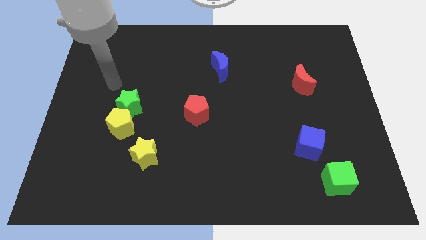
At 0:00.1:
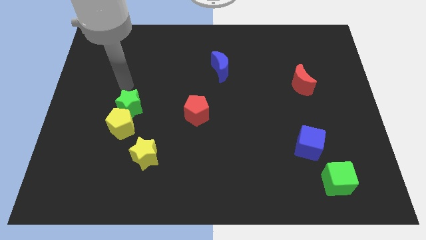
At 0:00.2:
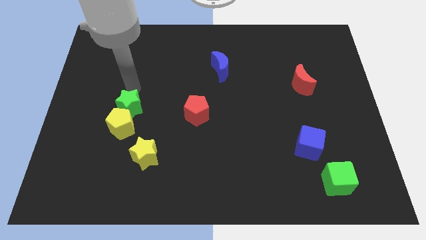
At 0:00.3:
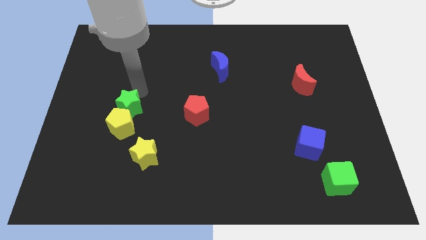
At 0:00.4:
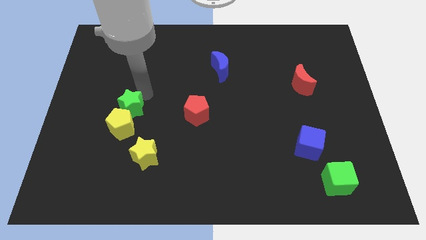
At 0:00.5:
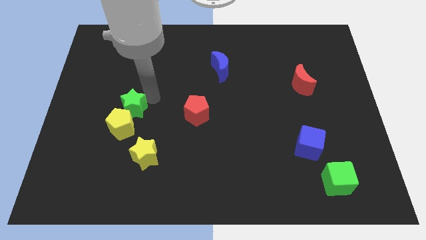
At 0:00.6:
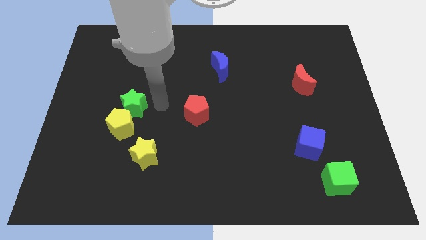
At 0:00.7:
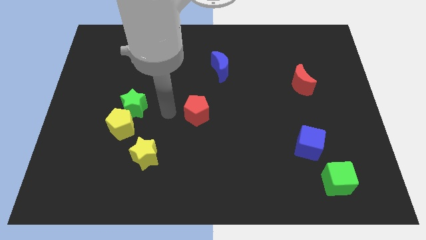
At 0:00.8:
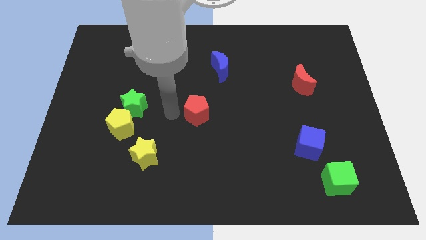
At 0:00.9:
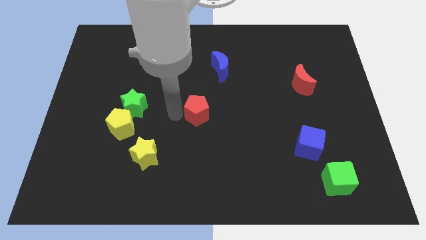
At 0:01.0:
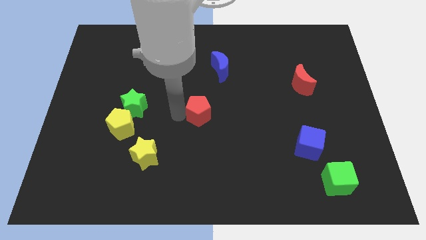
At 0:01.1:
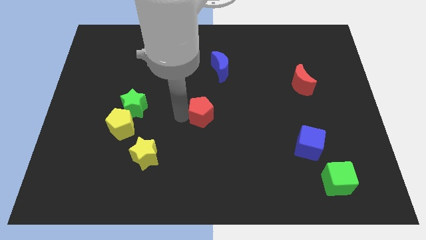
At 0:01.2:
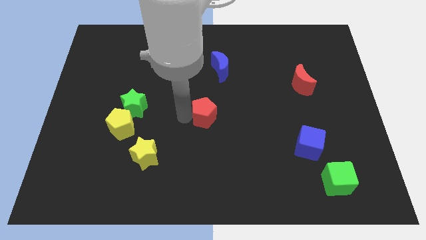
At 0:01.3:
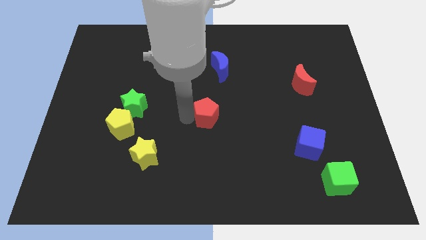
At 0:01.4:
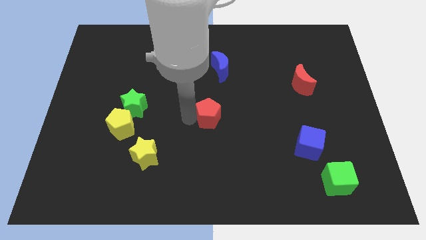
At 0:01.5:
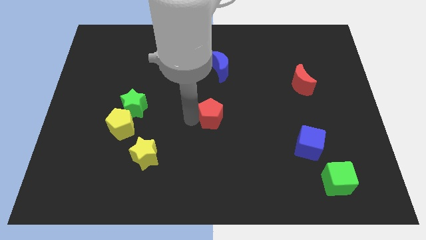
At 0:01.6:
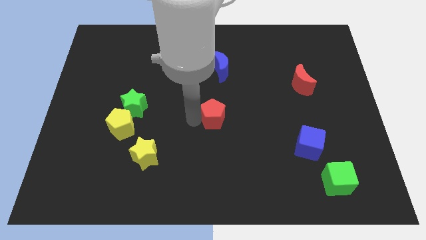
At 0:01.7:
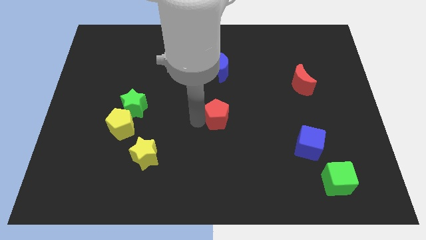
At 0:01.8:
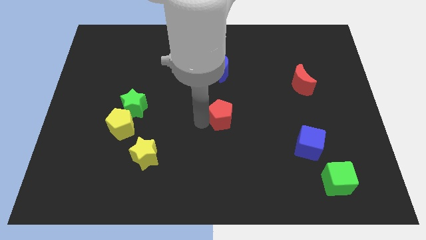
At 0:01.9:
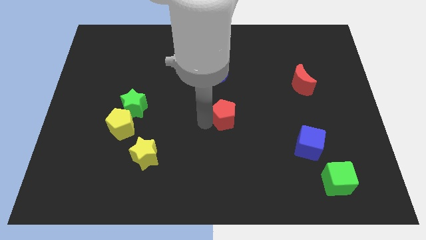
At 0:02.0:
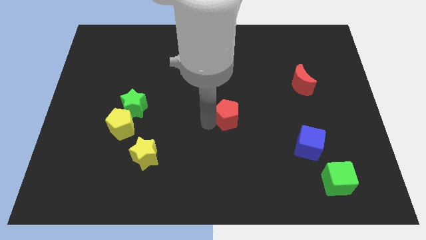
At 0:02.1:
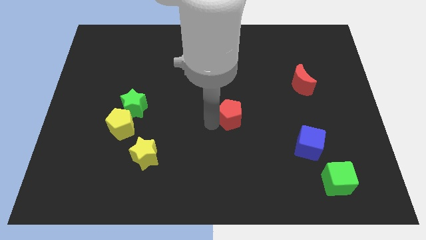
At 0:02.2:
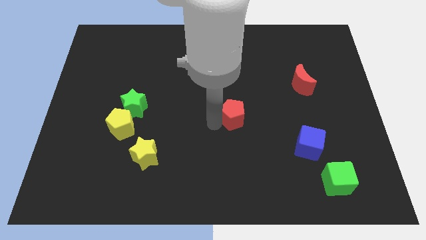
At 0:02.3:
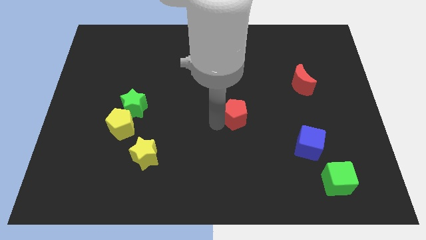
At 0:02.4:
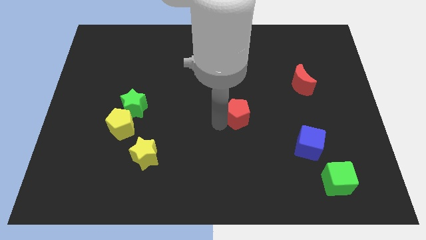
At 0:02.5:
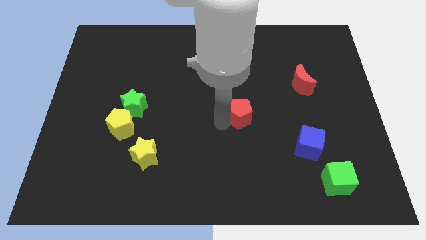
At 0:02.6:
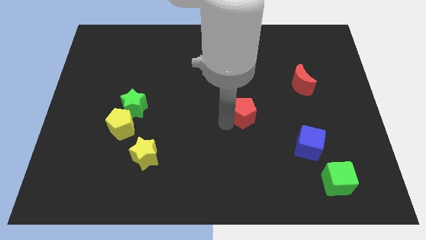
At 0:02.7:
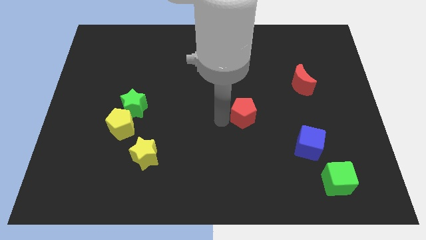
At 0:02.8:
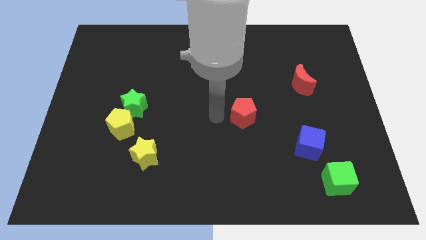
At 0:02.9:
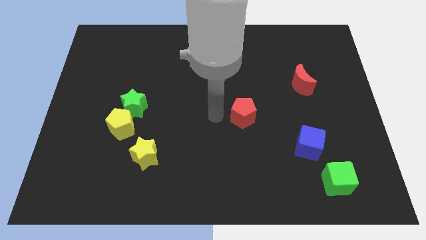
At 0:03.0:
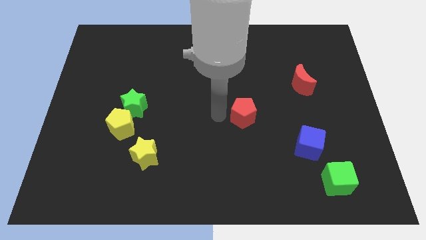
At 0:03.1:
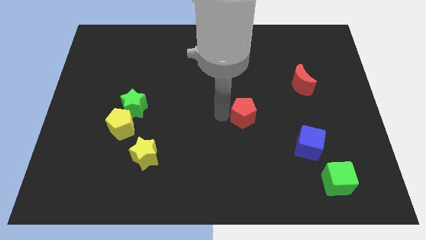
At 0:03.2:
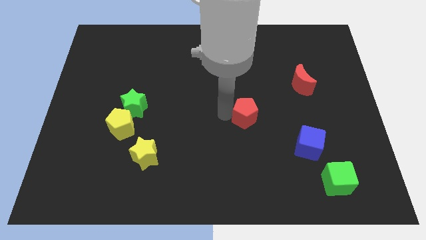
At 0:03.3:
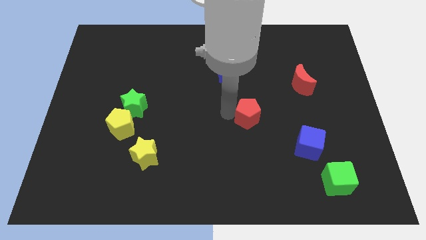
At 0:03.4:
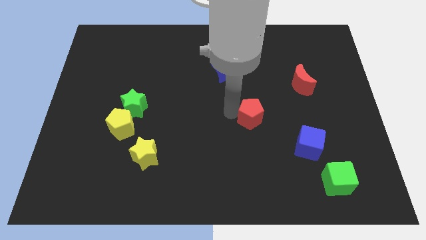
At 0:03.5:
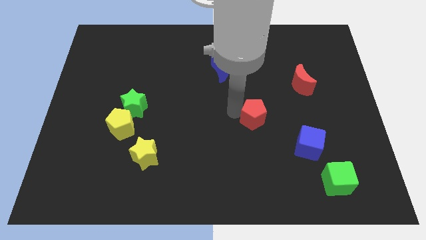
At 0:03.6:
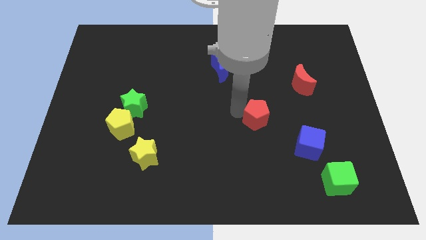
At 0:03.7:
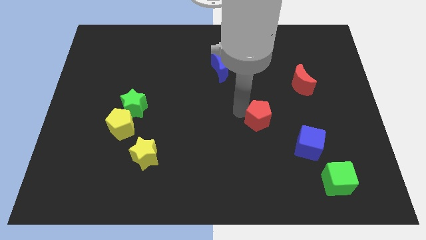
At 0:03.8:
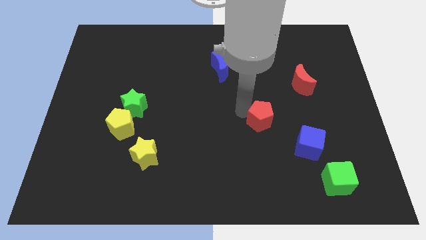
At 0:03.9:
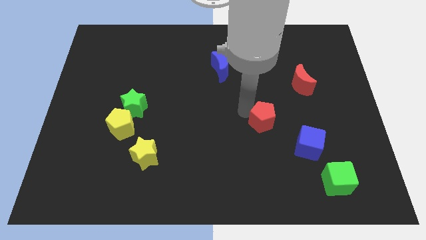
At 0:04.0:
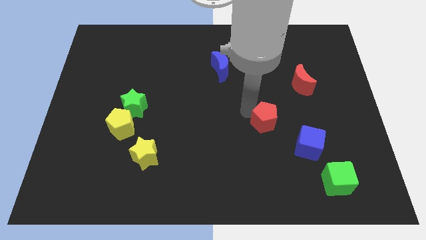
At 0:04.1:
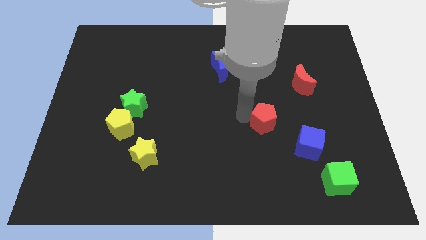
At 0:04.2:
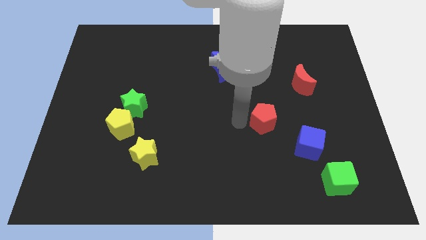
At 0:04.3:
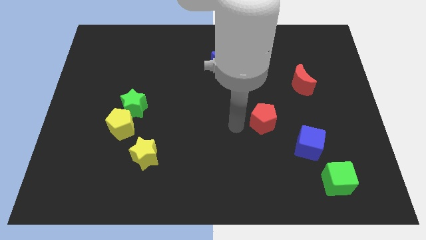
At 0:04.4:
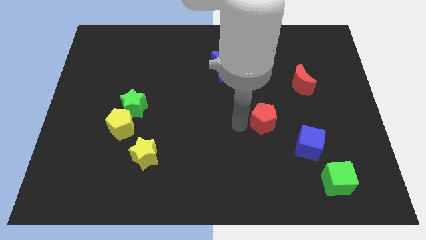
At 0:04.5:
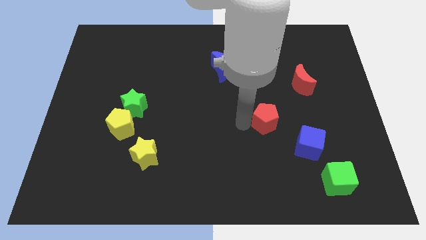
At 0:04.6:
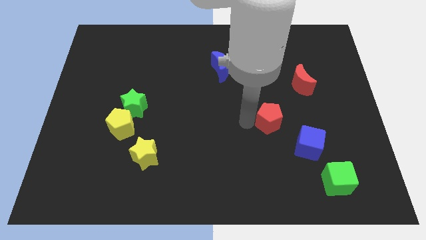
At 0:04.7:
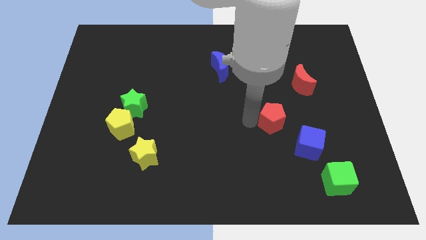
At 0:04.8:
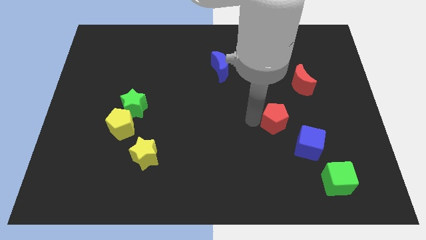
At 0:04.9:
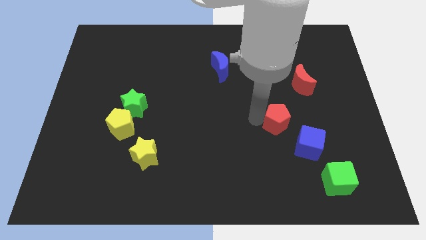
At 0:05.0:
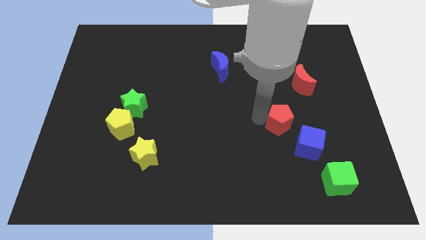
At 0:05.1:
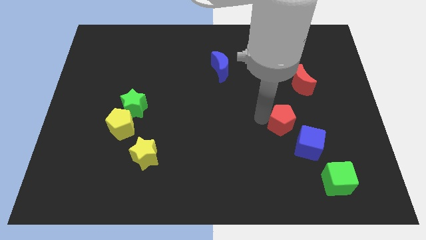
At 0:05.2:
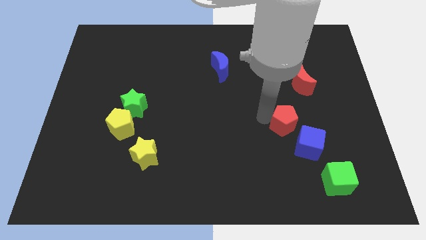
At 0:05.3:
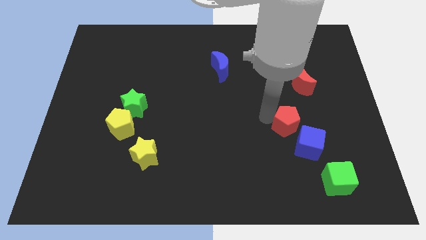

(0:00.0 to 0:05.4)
slide the red pentagon right

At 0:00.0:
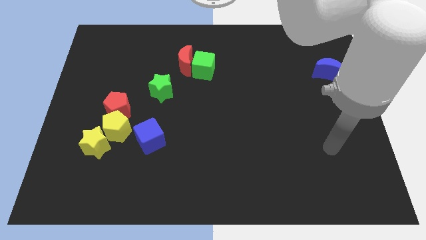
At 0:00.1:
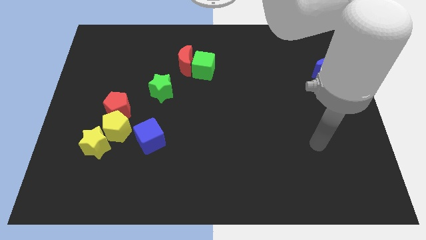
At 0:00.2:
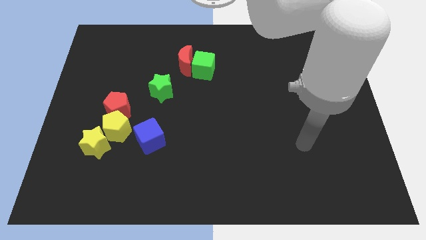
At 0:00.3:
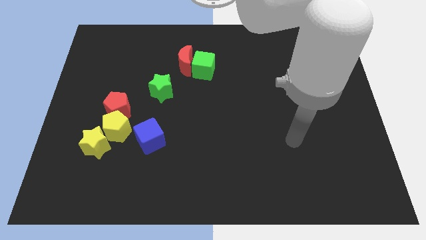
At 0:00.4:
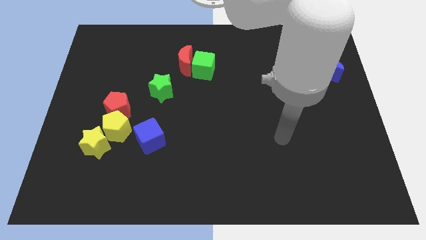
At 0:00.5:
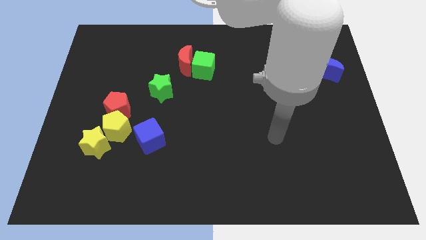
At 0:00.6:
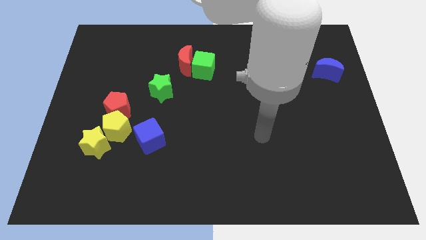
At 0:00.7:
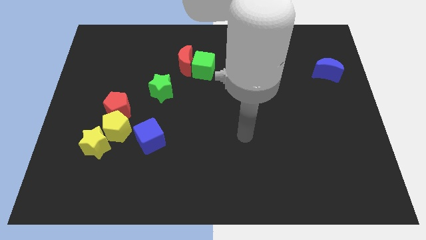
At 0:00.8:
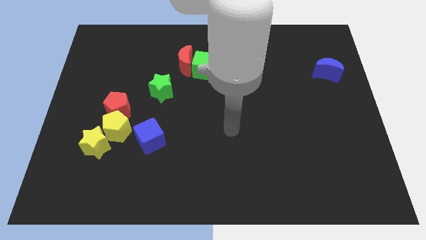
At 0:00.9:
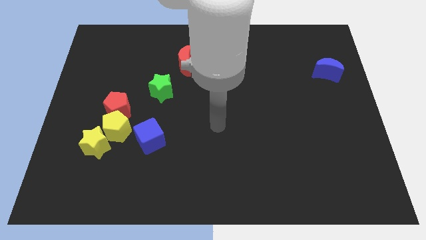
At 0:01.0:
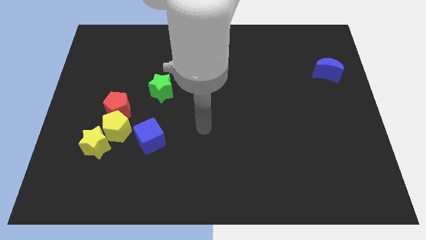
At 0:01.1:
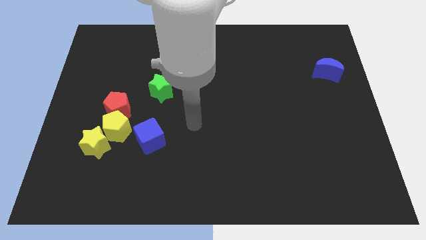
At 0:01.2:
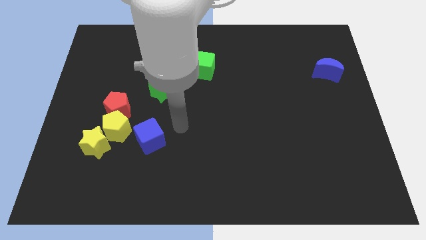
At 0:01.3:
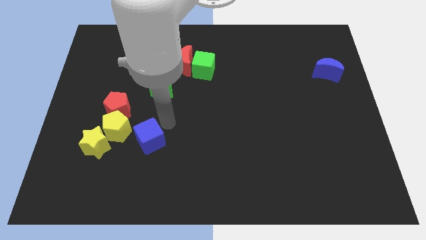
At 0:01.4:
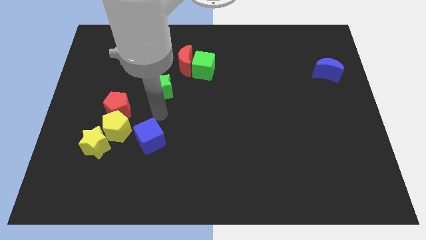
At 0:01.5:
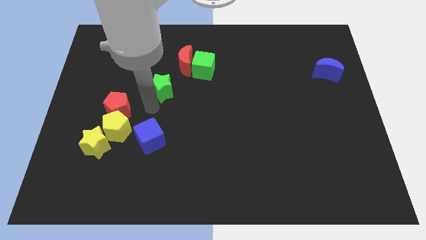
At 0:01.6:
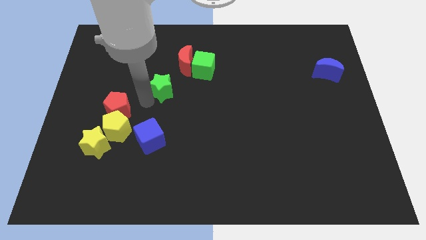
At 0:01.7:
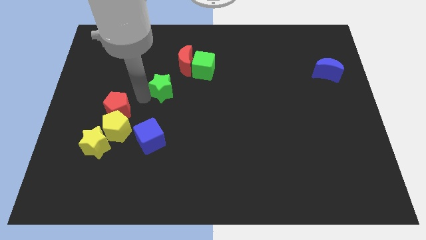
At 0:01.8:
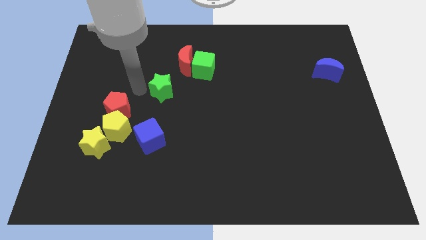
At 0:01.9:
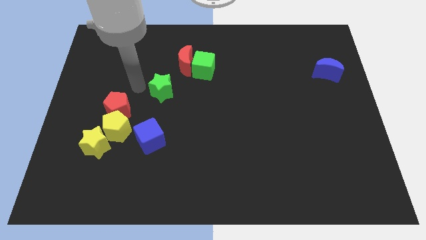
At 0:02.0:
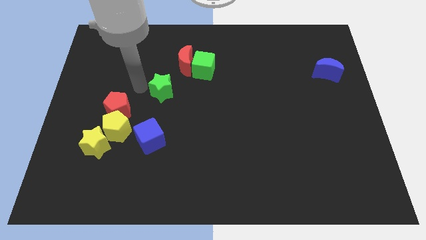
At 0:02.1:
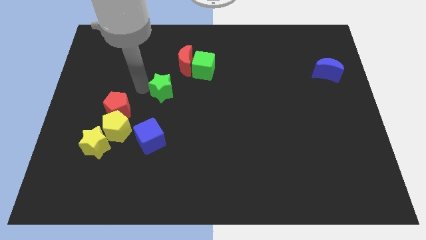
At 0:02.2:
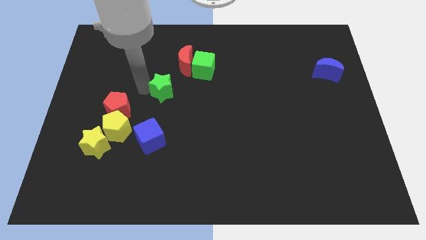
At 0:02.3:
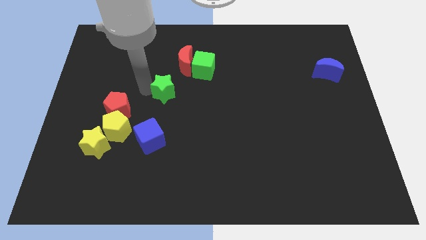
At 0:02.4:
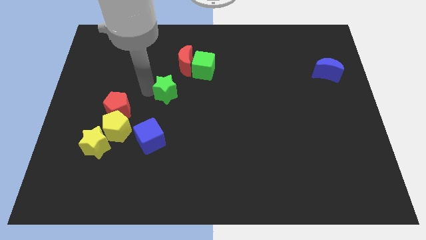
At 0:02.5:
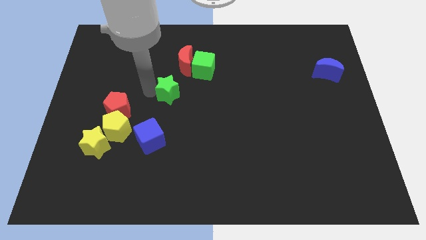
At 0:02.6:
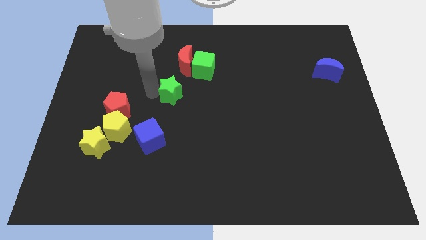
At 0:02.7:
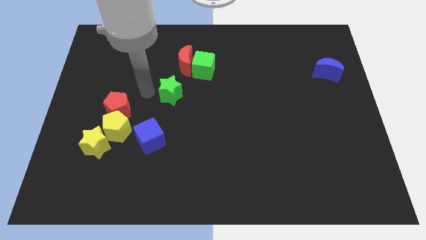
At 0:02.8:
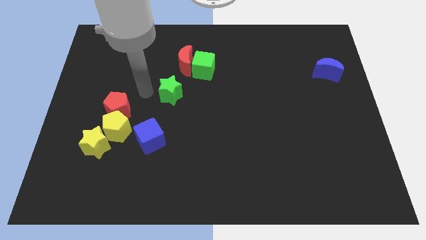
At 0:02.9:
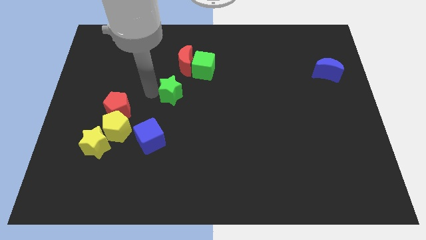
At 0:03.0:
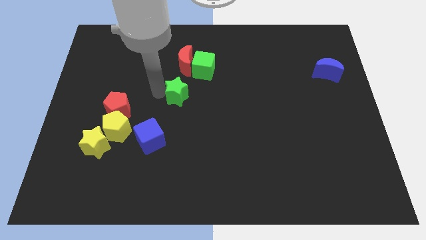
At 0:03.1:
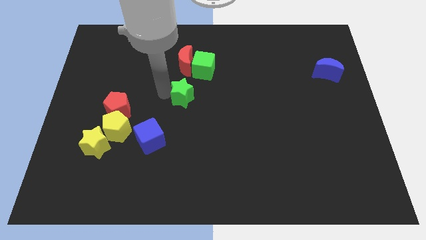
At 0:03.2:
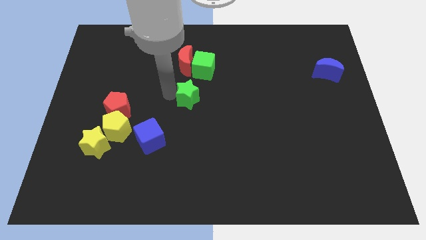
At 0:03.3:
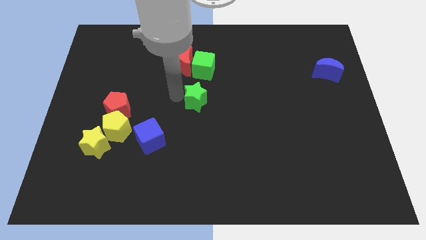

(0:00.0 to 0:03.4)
push the green star to the right somewhat
